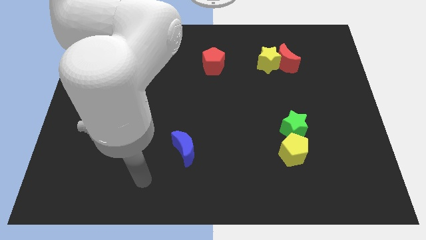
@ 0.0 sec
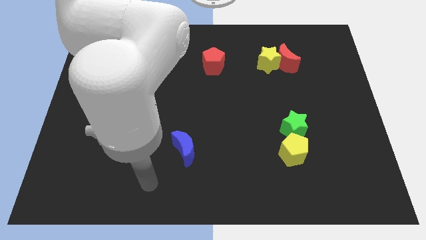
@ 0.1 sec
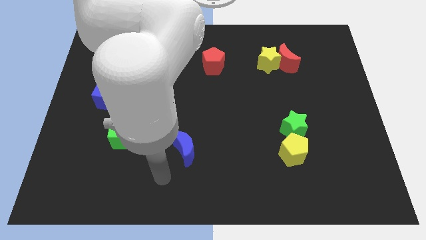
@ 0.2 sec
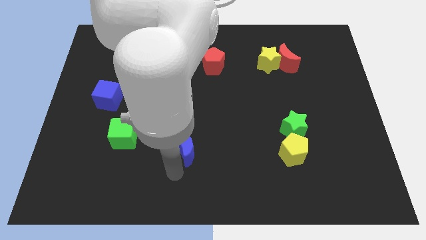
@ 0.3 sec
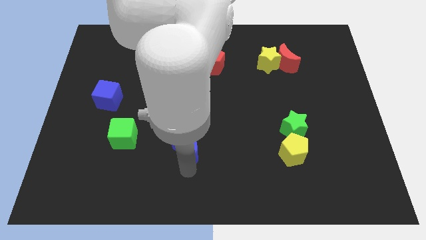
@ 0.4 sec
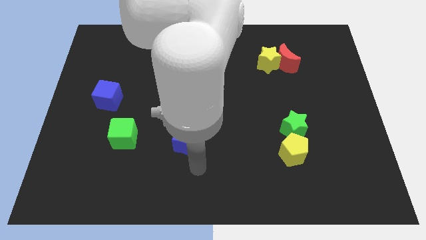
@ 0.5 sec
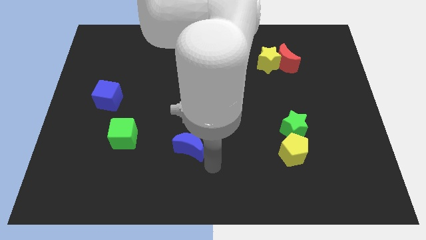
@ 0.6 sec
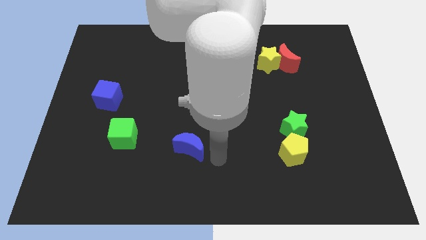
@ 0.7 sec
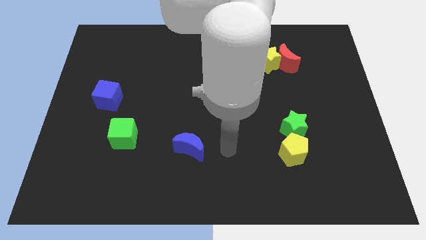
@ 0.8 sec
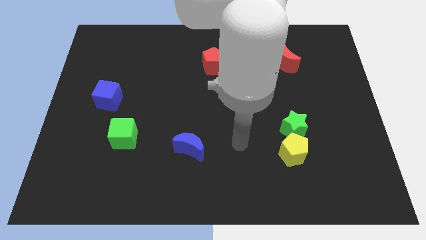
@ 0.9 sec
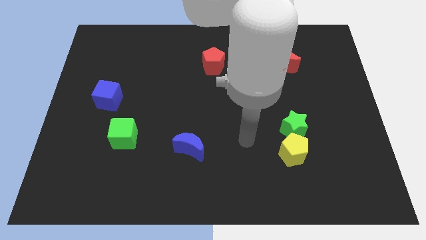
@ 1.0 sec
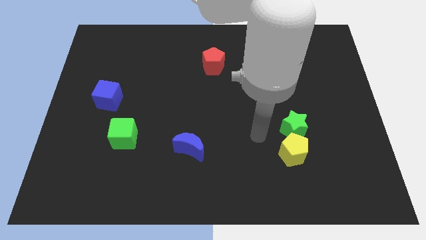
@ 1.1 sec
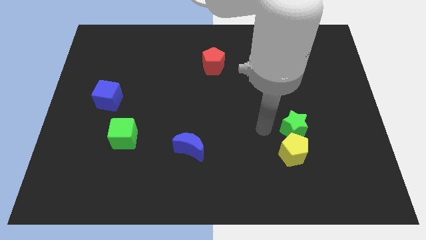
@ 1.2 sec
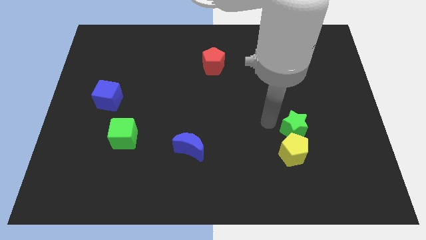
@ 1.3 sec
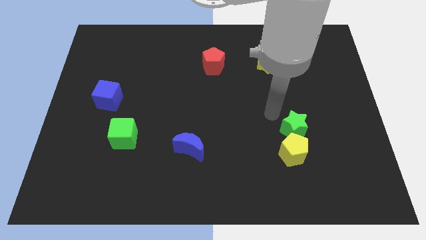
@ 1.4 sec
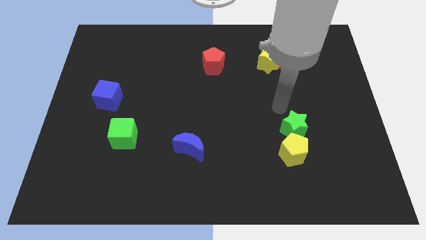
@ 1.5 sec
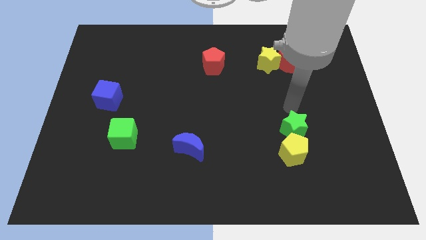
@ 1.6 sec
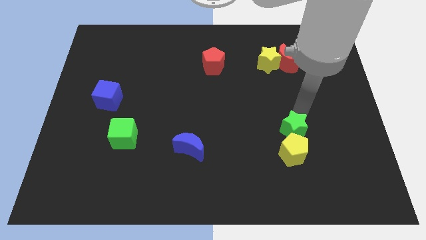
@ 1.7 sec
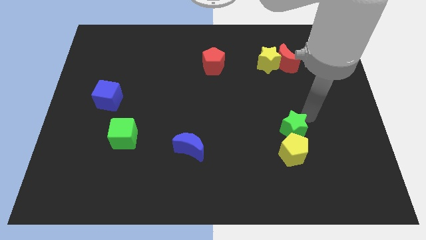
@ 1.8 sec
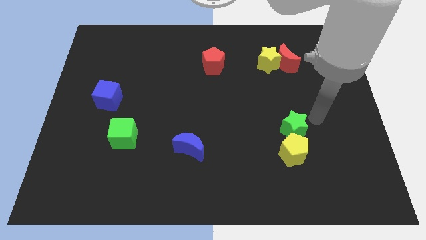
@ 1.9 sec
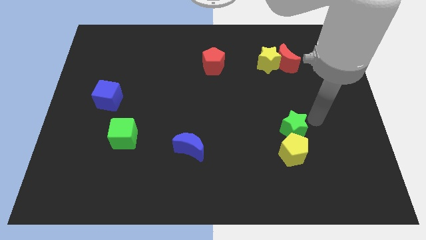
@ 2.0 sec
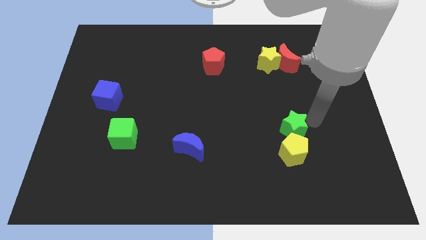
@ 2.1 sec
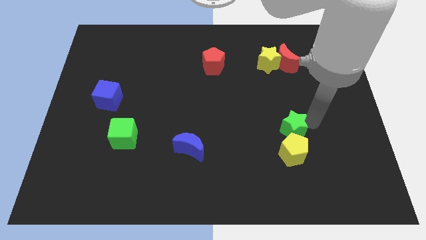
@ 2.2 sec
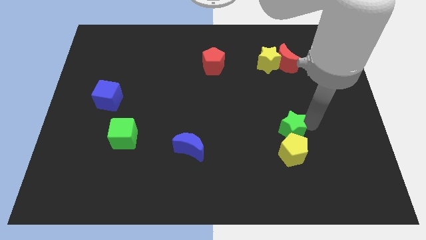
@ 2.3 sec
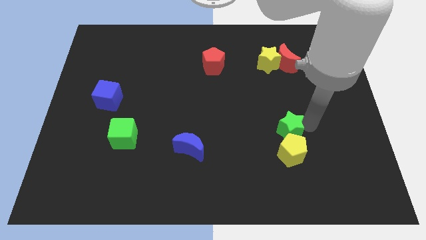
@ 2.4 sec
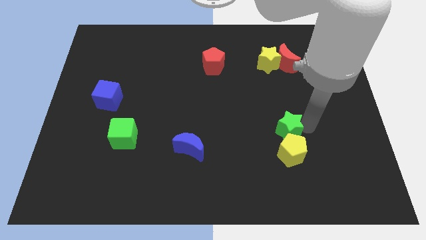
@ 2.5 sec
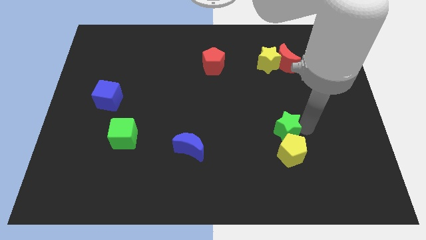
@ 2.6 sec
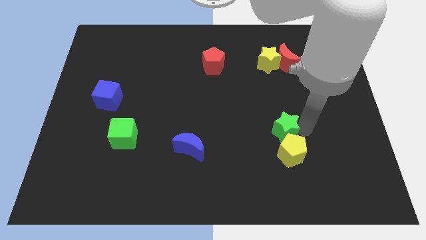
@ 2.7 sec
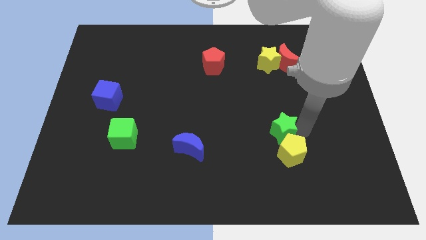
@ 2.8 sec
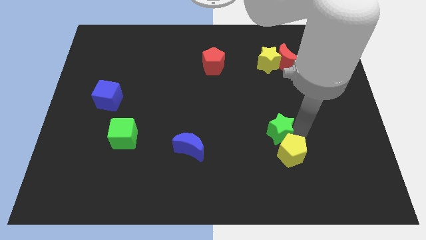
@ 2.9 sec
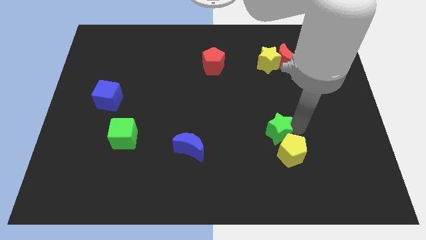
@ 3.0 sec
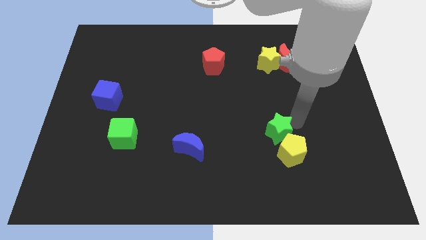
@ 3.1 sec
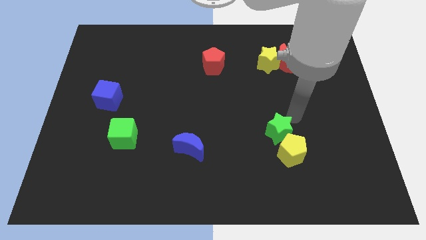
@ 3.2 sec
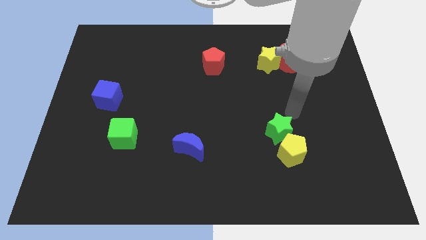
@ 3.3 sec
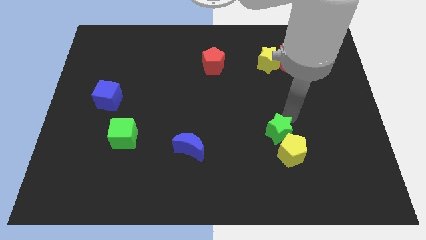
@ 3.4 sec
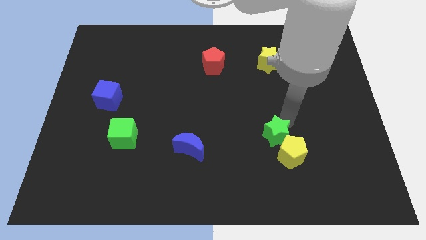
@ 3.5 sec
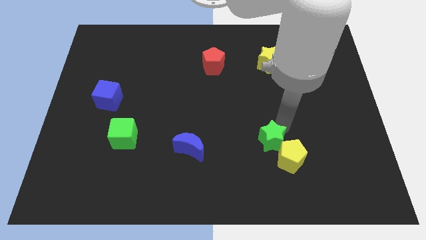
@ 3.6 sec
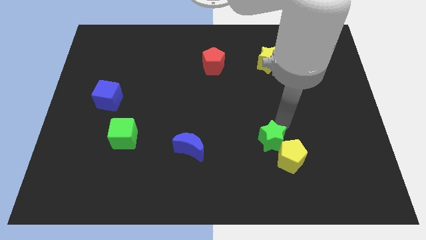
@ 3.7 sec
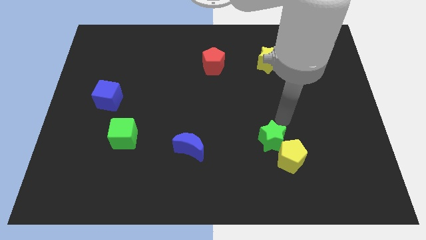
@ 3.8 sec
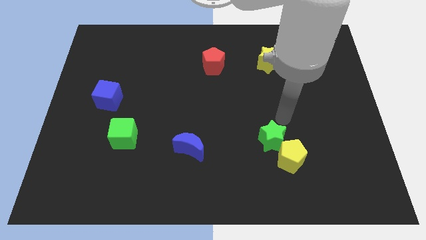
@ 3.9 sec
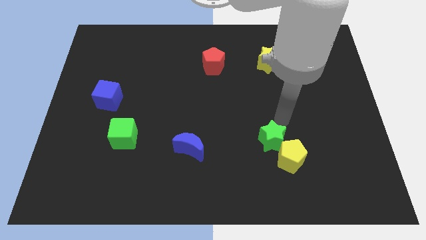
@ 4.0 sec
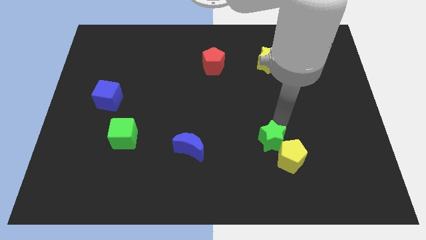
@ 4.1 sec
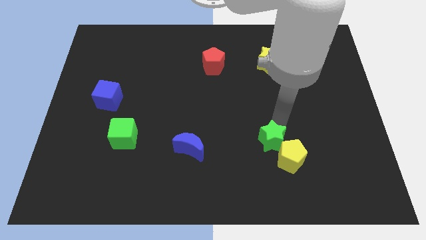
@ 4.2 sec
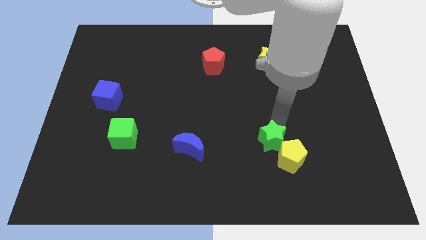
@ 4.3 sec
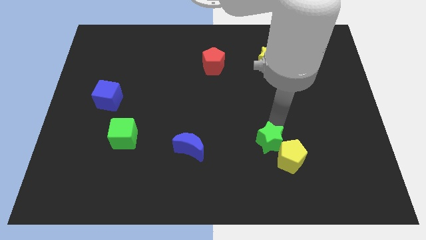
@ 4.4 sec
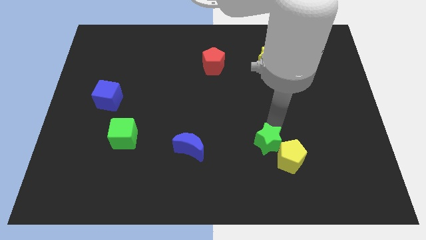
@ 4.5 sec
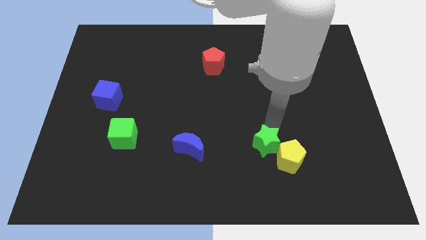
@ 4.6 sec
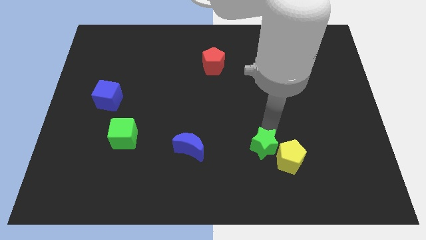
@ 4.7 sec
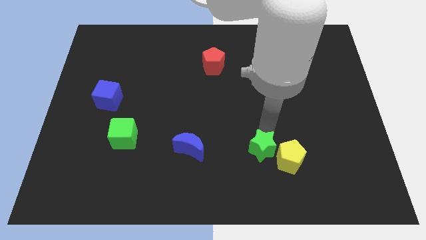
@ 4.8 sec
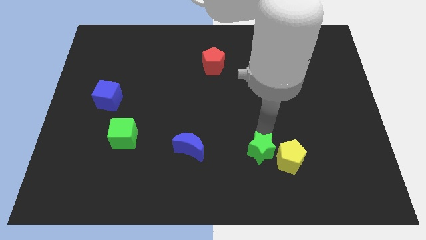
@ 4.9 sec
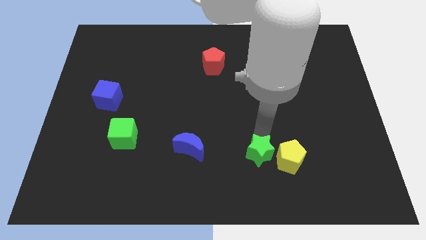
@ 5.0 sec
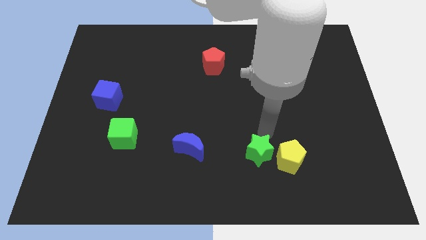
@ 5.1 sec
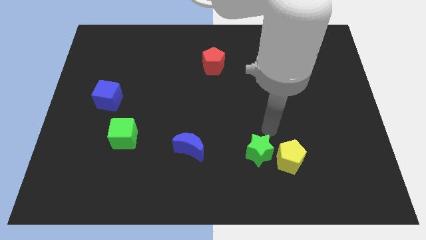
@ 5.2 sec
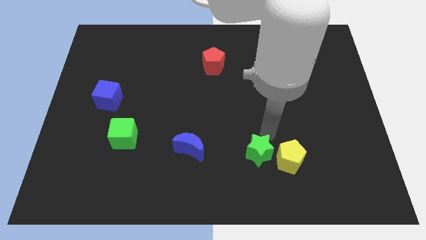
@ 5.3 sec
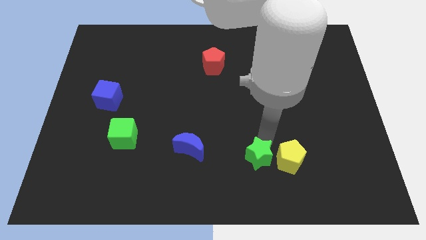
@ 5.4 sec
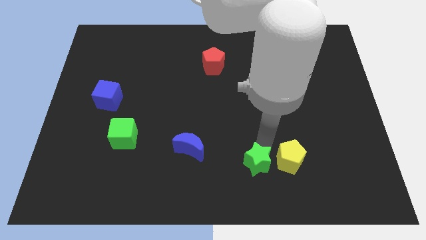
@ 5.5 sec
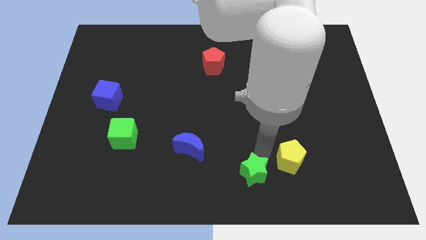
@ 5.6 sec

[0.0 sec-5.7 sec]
put the green star to the bottom side
